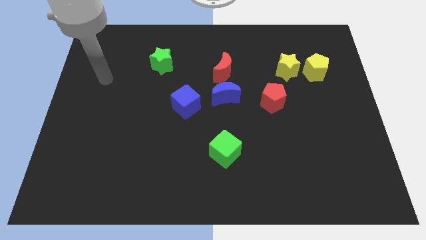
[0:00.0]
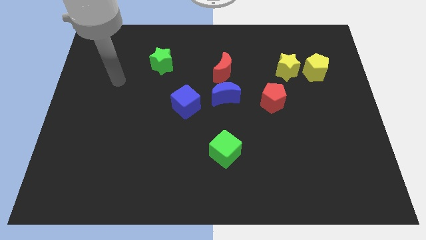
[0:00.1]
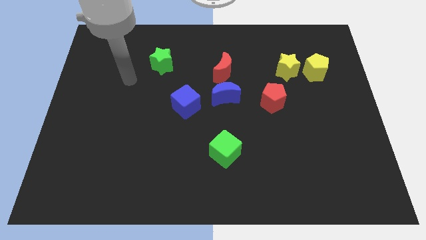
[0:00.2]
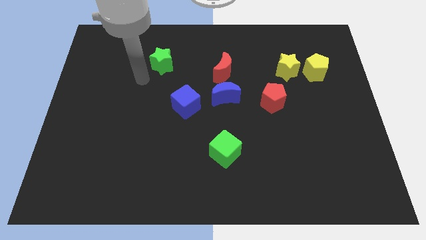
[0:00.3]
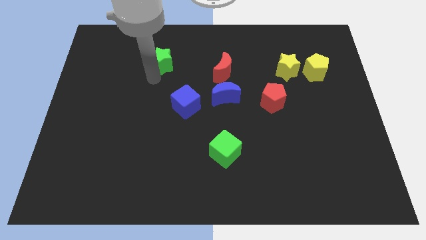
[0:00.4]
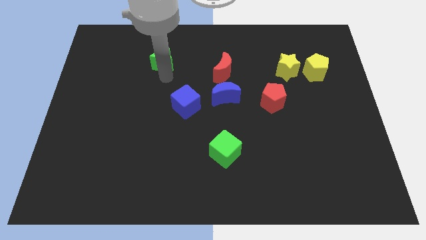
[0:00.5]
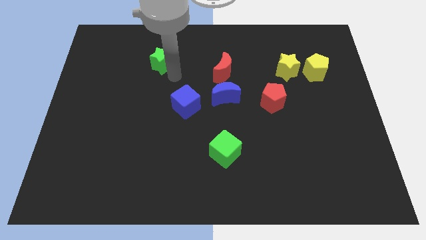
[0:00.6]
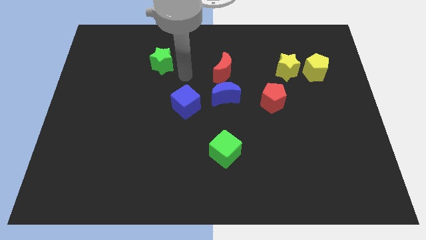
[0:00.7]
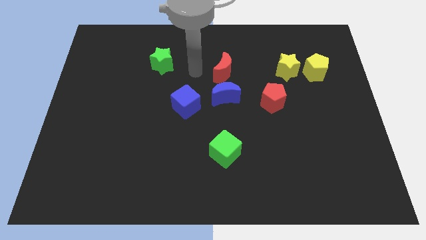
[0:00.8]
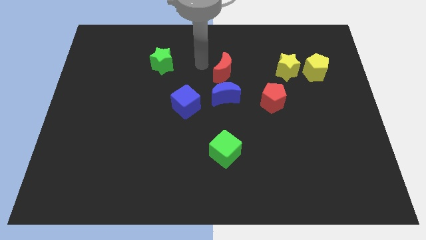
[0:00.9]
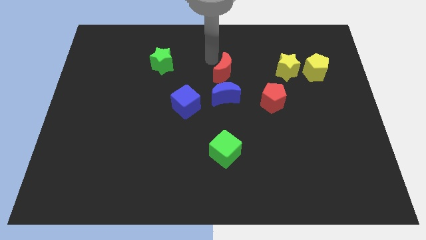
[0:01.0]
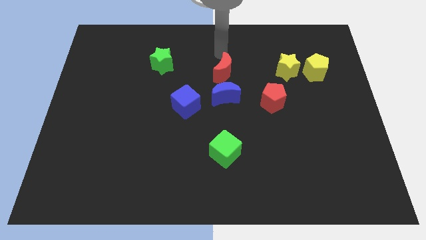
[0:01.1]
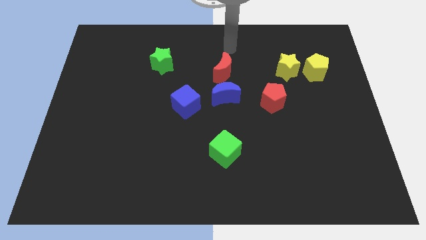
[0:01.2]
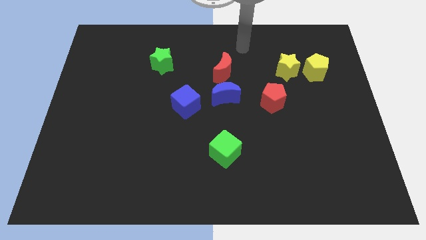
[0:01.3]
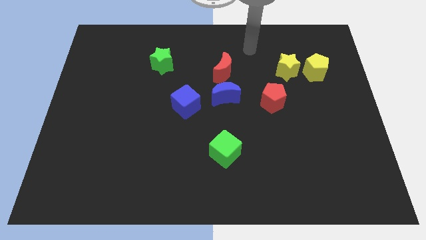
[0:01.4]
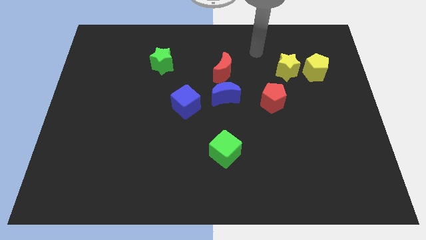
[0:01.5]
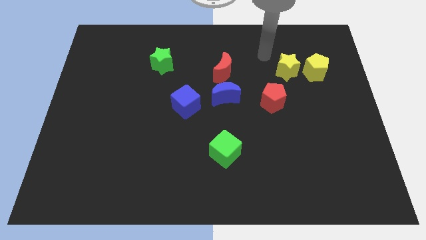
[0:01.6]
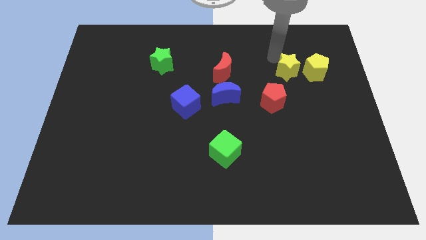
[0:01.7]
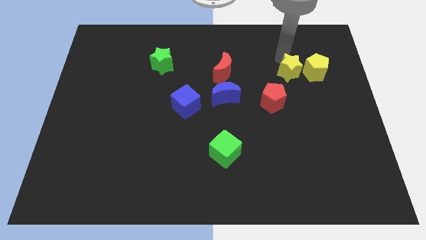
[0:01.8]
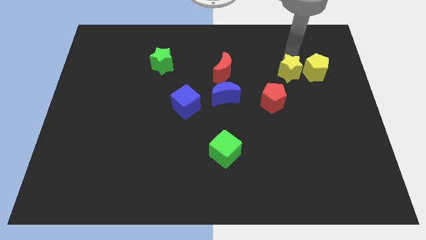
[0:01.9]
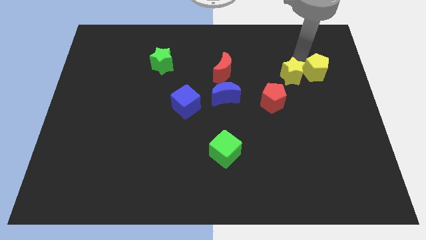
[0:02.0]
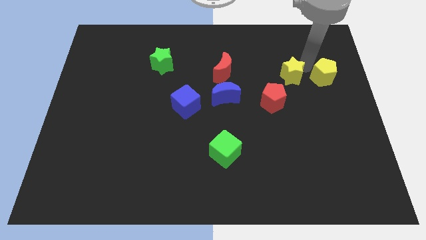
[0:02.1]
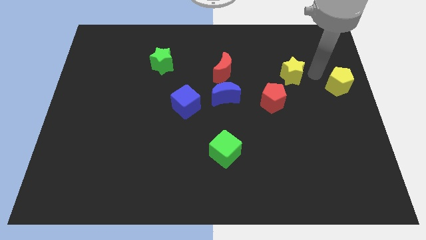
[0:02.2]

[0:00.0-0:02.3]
pull the yellow star apart from the yellow pentagon

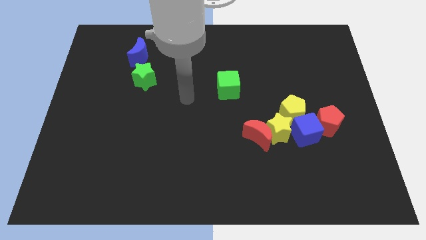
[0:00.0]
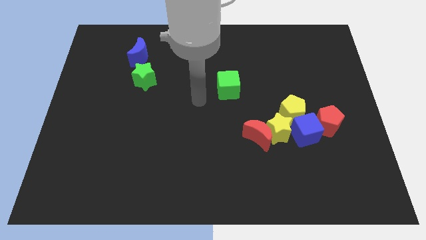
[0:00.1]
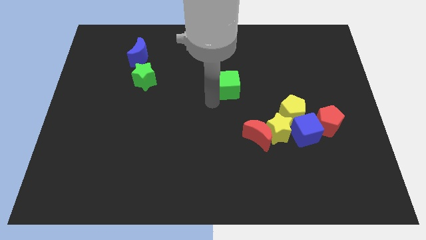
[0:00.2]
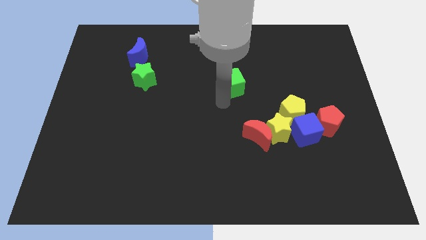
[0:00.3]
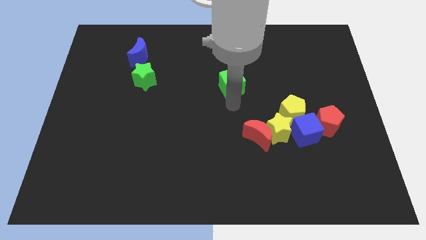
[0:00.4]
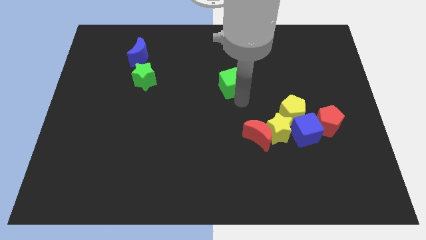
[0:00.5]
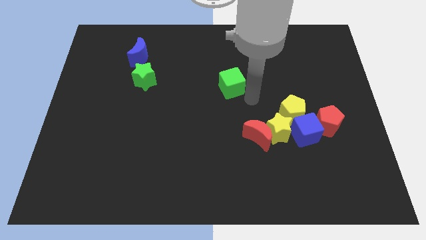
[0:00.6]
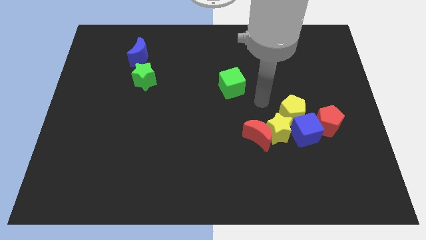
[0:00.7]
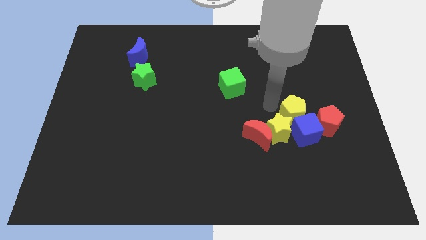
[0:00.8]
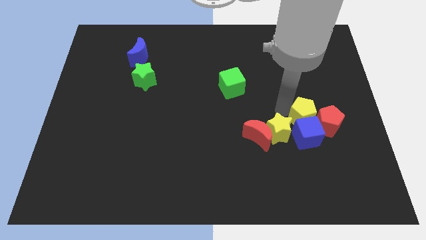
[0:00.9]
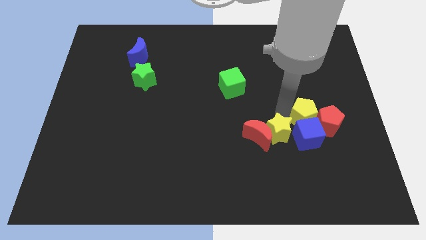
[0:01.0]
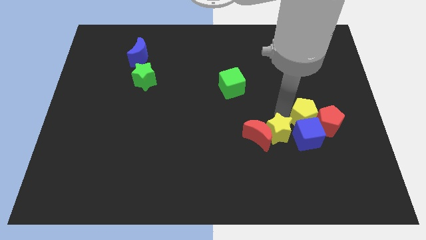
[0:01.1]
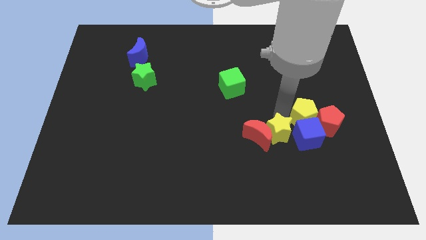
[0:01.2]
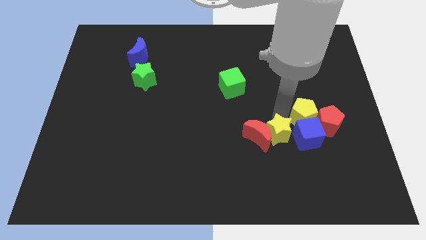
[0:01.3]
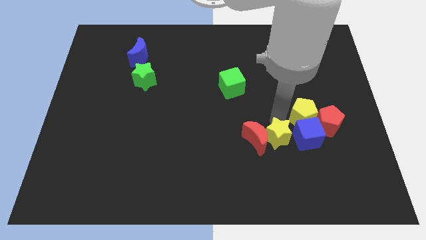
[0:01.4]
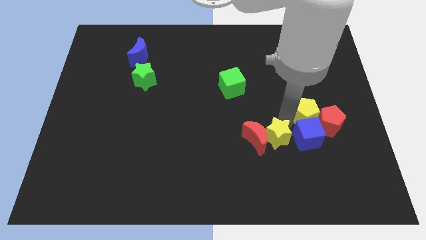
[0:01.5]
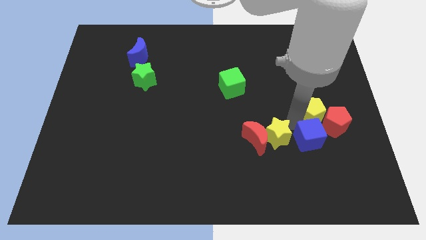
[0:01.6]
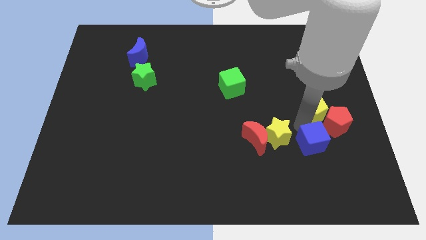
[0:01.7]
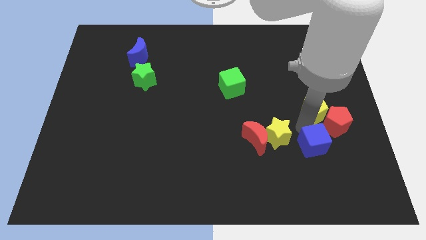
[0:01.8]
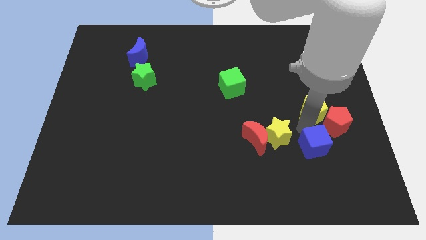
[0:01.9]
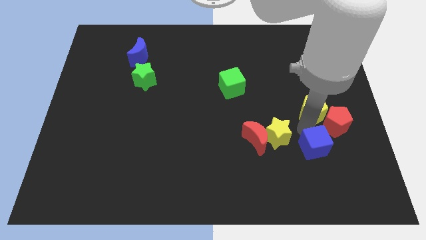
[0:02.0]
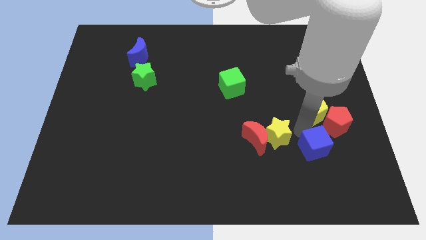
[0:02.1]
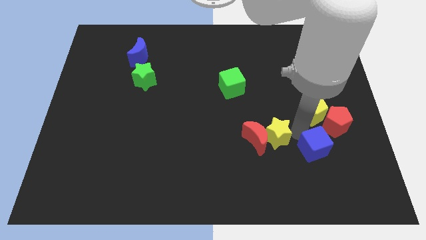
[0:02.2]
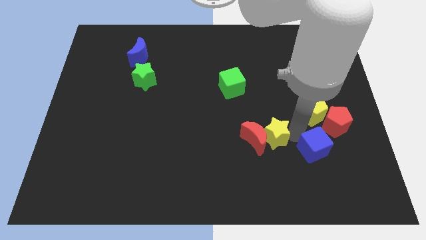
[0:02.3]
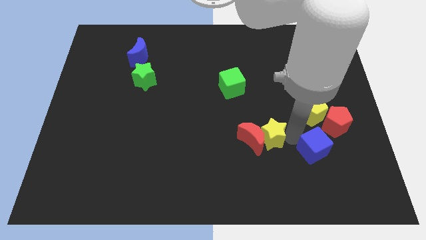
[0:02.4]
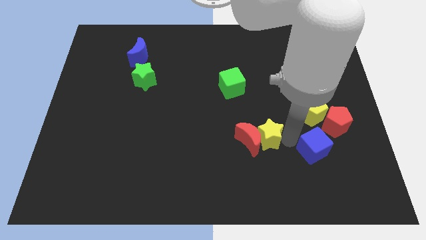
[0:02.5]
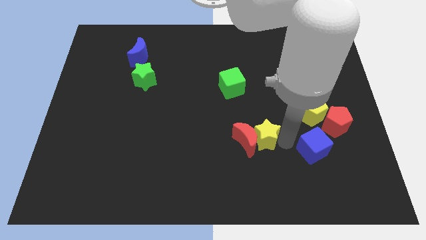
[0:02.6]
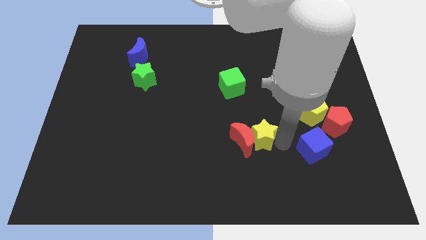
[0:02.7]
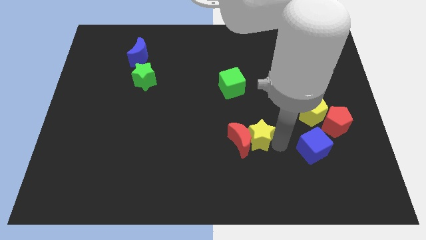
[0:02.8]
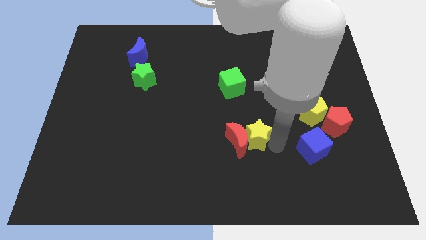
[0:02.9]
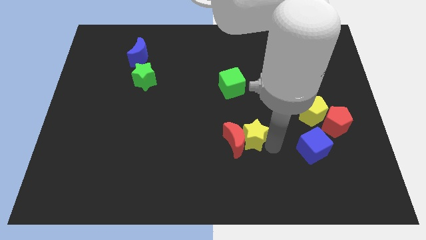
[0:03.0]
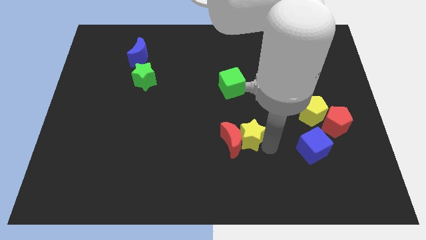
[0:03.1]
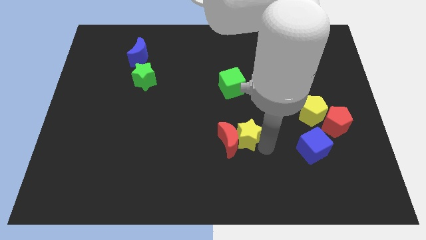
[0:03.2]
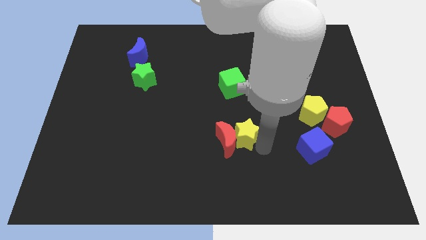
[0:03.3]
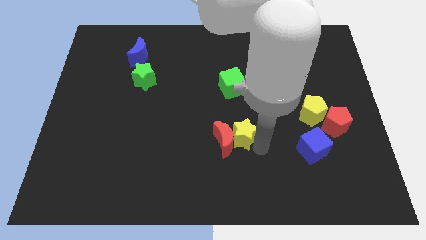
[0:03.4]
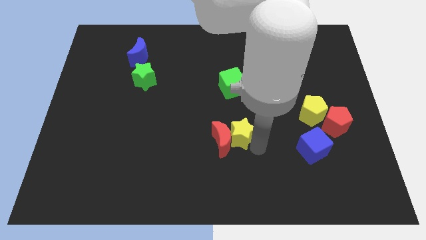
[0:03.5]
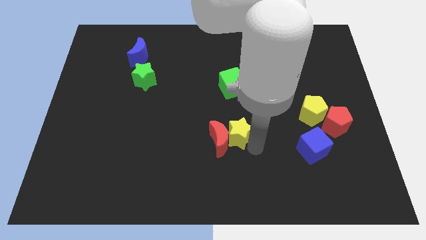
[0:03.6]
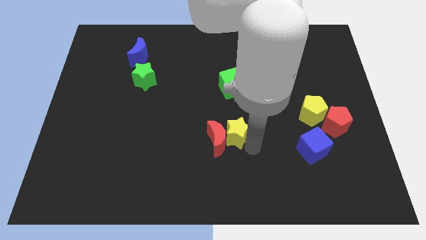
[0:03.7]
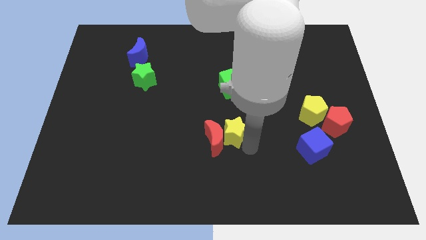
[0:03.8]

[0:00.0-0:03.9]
move the yellow star away from the group

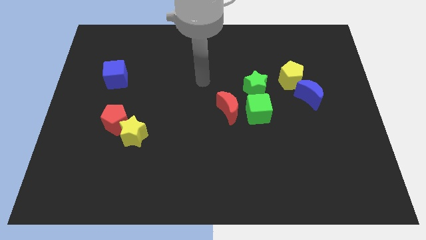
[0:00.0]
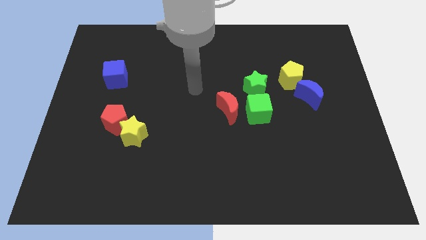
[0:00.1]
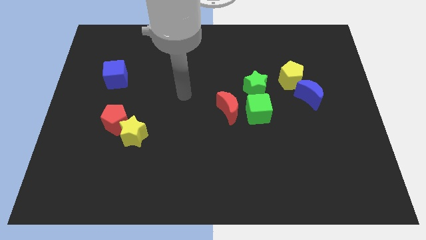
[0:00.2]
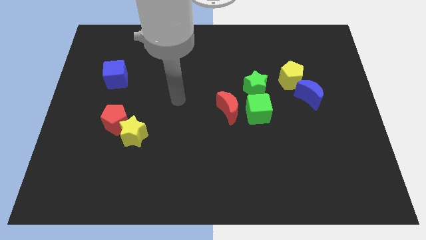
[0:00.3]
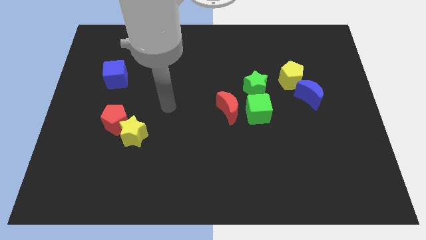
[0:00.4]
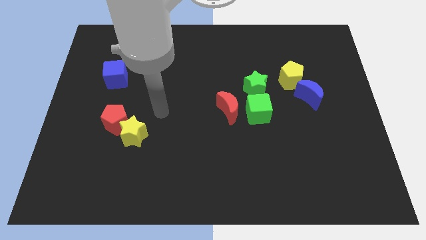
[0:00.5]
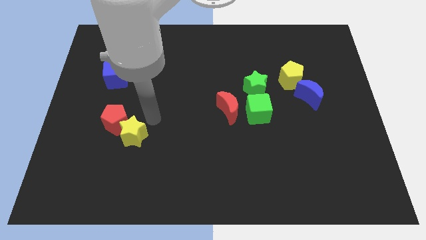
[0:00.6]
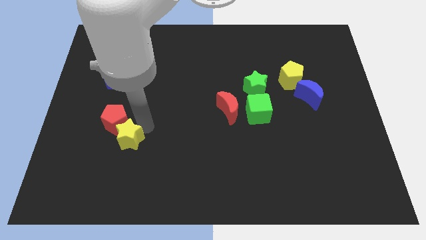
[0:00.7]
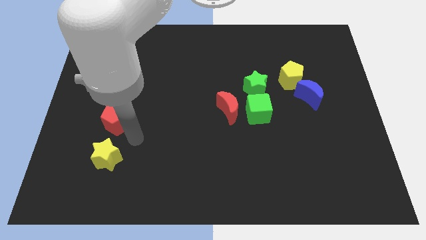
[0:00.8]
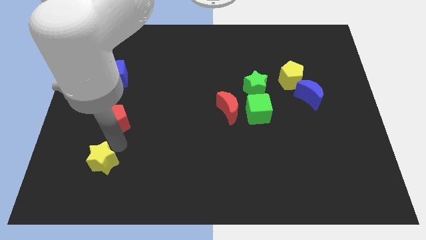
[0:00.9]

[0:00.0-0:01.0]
move the red pentagon away from the yellow star

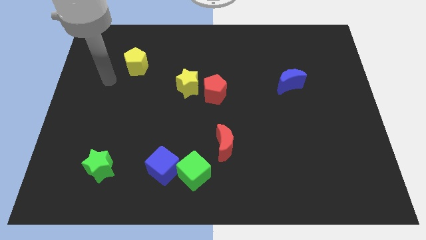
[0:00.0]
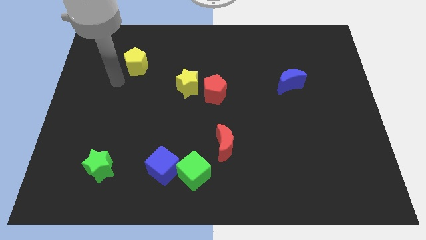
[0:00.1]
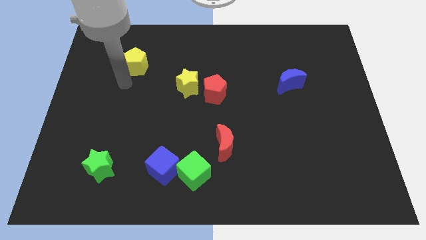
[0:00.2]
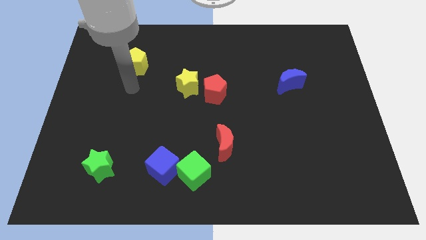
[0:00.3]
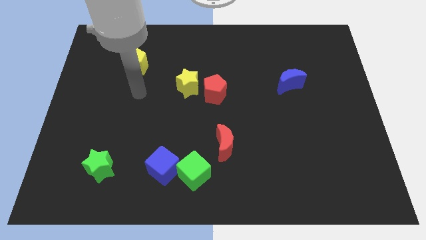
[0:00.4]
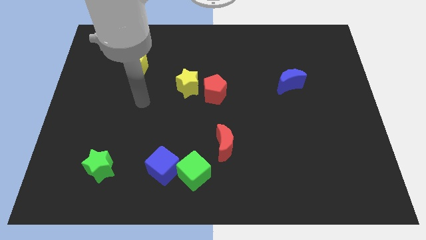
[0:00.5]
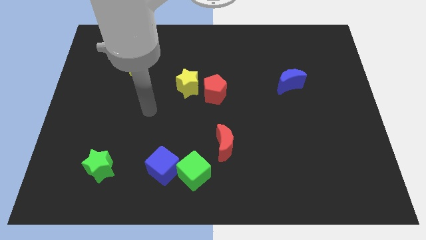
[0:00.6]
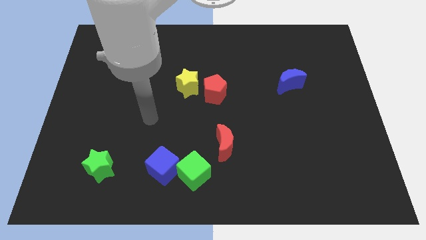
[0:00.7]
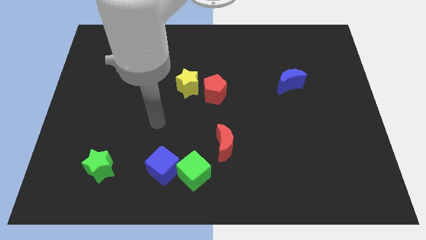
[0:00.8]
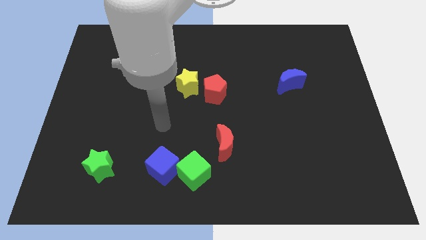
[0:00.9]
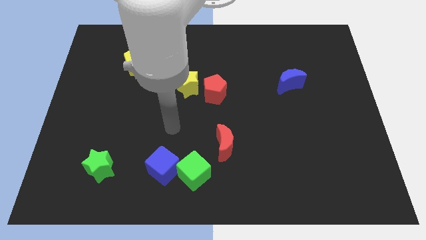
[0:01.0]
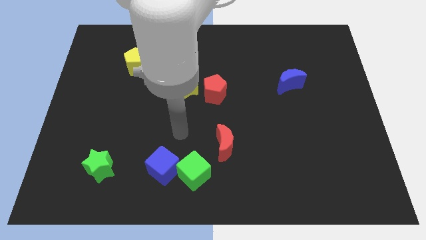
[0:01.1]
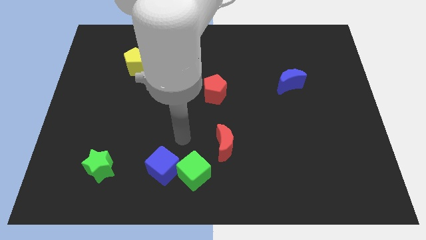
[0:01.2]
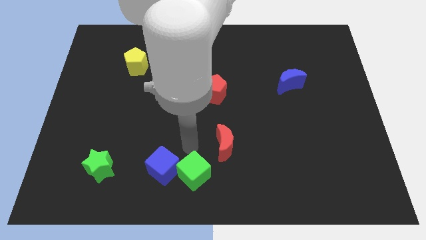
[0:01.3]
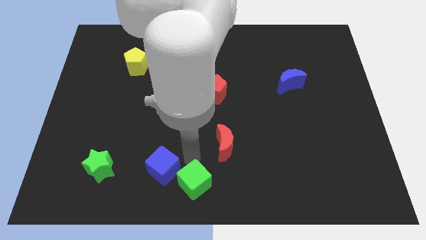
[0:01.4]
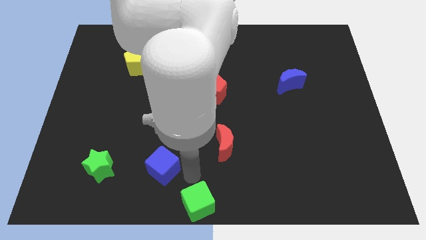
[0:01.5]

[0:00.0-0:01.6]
pull the blue cube apart from the green cube

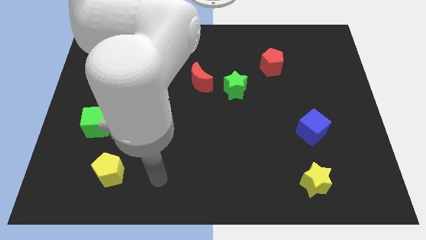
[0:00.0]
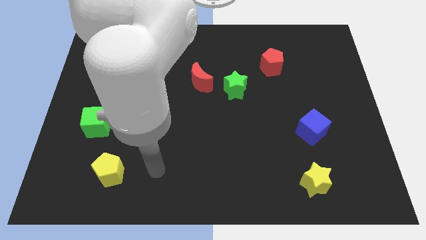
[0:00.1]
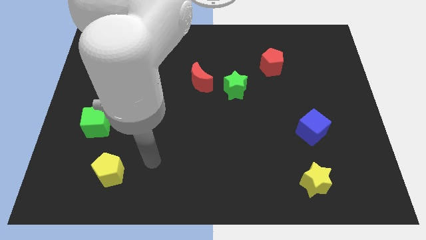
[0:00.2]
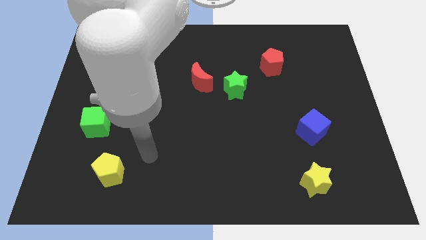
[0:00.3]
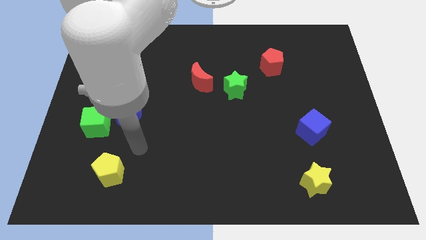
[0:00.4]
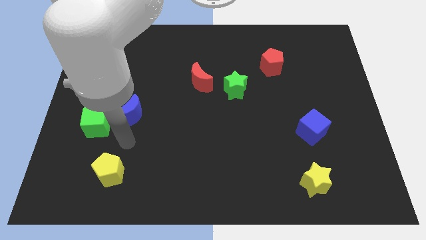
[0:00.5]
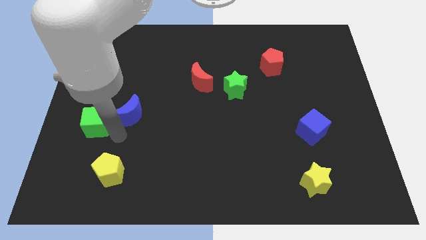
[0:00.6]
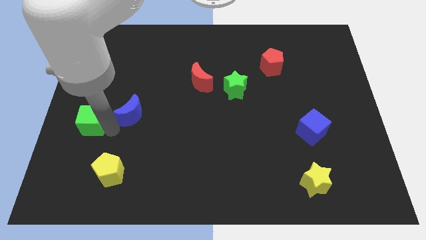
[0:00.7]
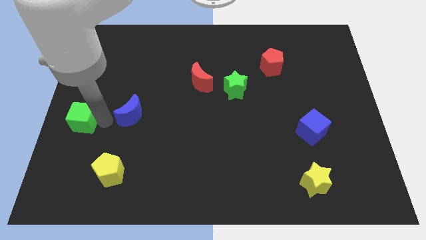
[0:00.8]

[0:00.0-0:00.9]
move the blue moon away from the green cube
